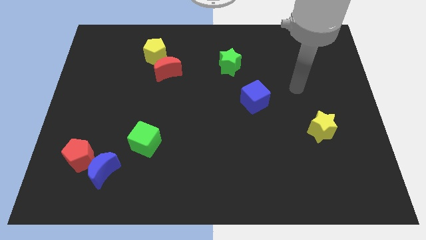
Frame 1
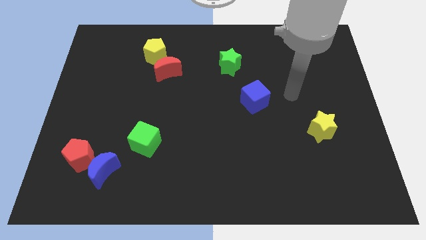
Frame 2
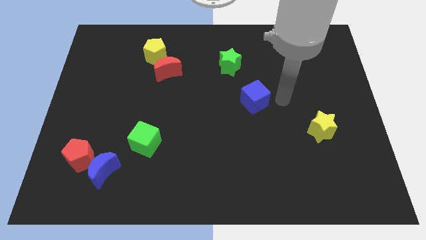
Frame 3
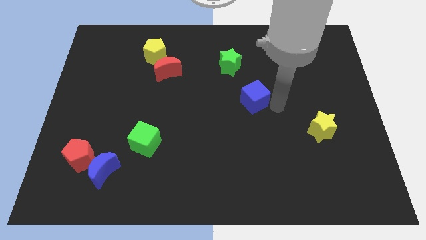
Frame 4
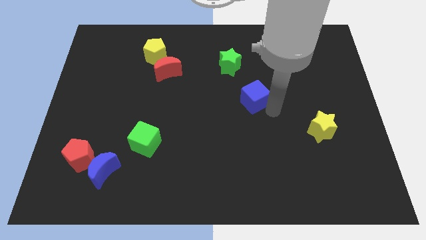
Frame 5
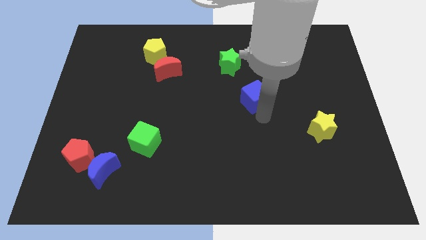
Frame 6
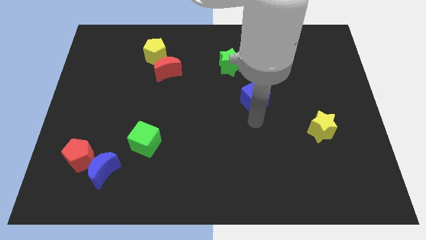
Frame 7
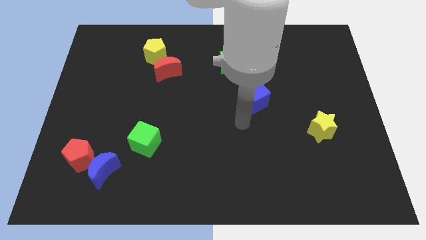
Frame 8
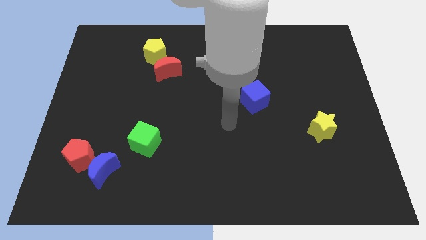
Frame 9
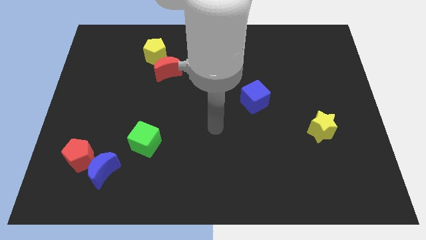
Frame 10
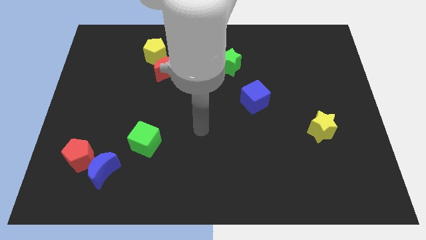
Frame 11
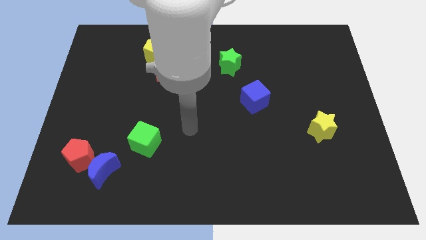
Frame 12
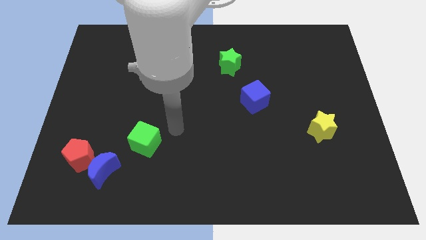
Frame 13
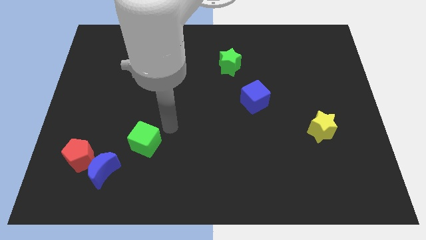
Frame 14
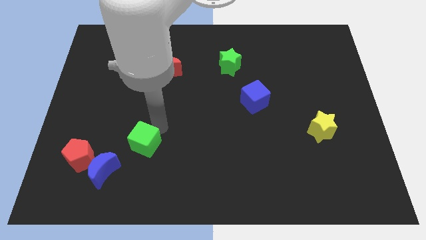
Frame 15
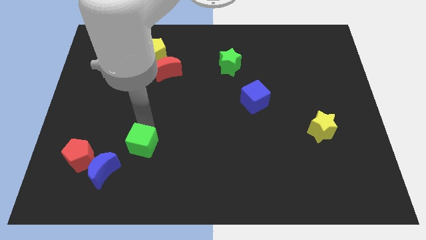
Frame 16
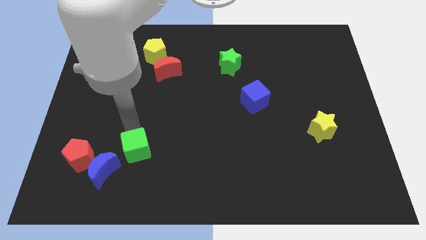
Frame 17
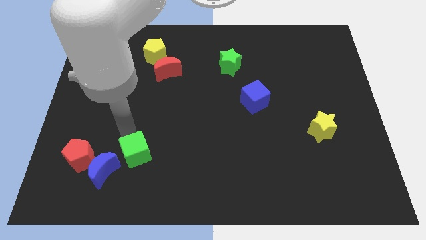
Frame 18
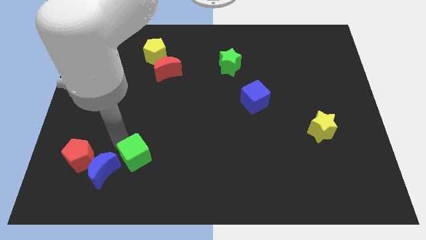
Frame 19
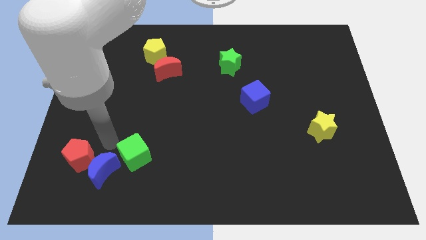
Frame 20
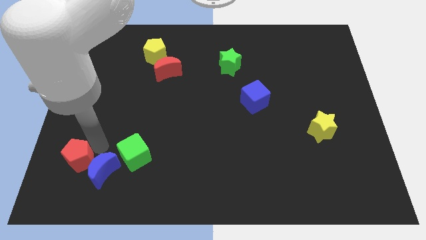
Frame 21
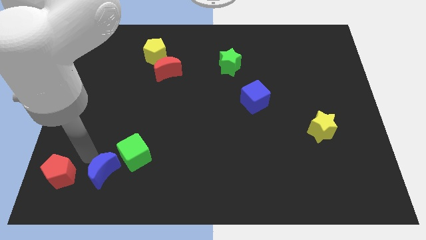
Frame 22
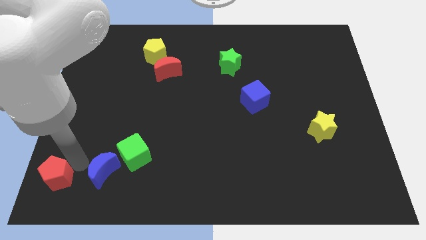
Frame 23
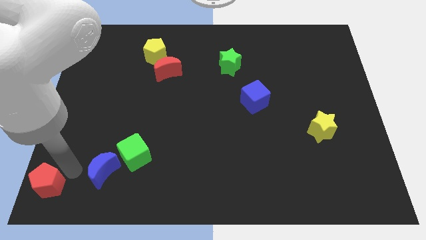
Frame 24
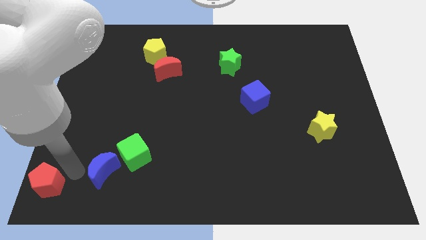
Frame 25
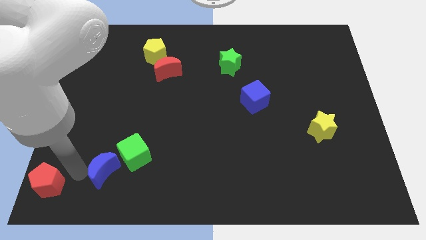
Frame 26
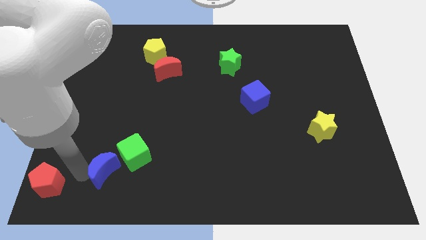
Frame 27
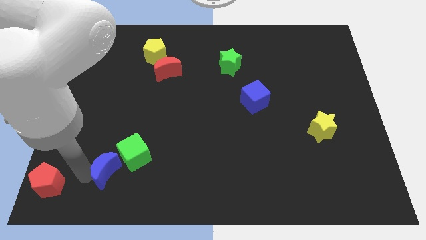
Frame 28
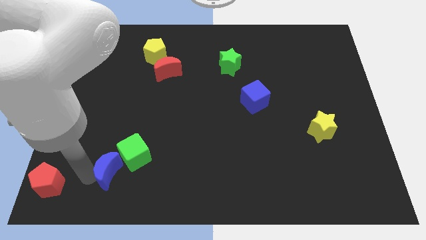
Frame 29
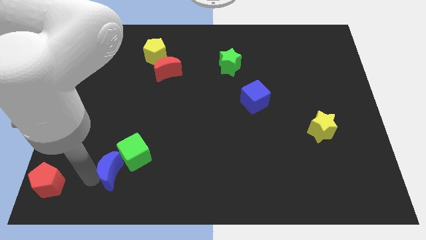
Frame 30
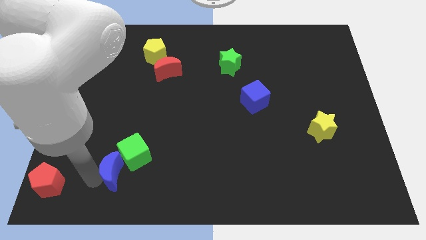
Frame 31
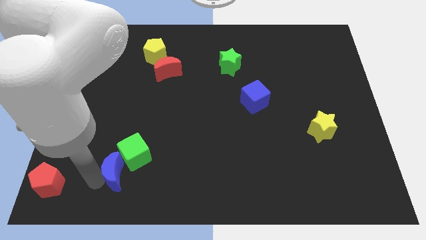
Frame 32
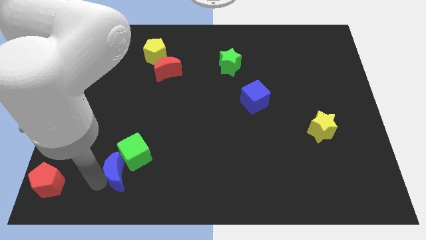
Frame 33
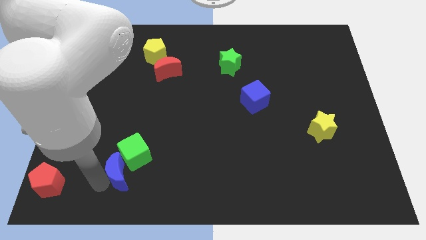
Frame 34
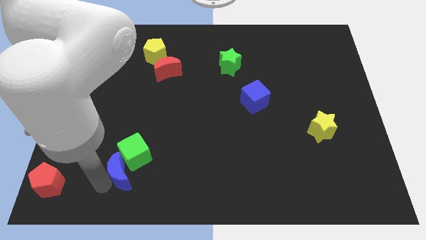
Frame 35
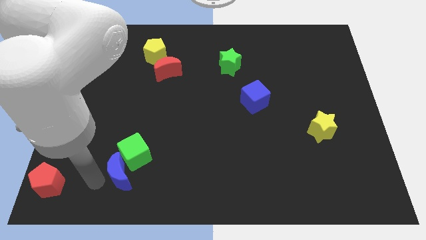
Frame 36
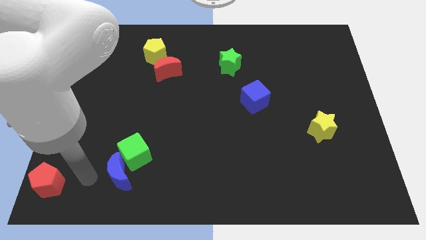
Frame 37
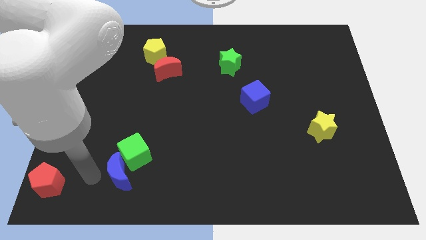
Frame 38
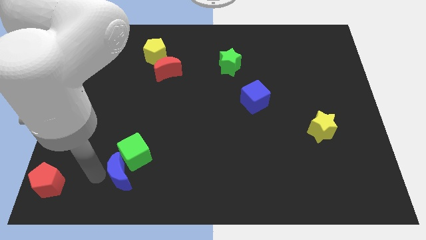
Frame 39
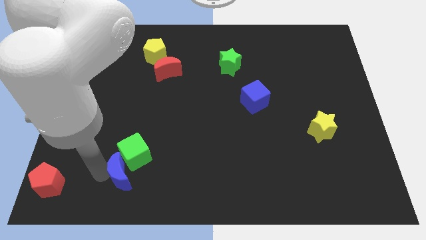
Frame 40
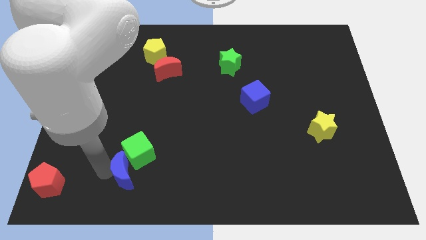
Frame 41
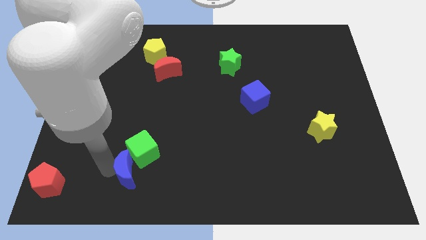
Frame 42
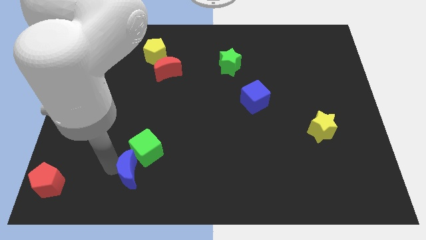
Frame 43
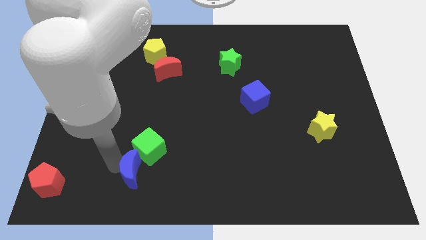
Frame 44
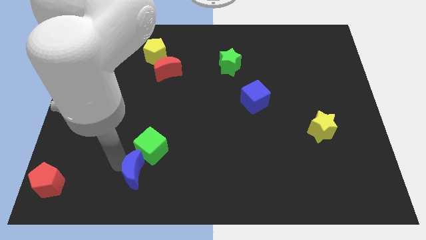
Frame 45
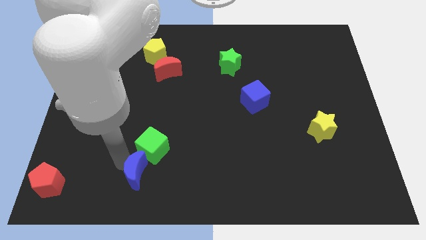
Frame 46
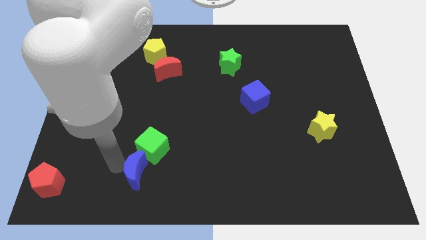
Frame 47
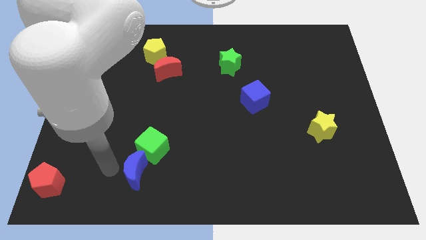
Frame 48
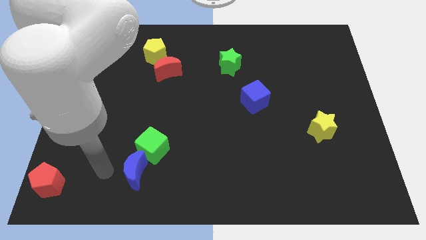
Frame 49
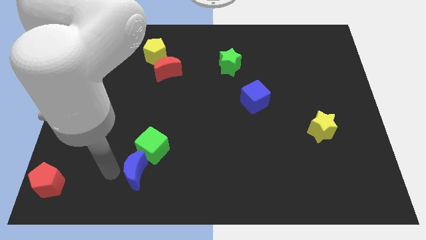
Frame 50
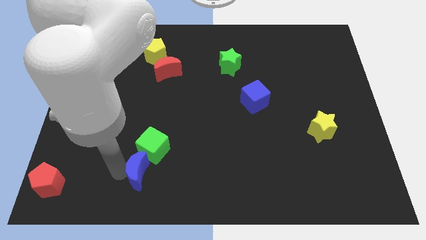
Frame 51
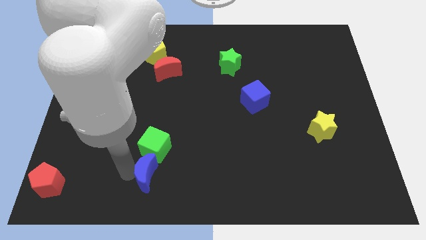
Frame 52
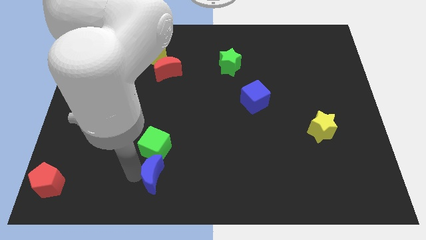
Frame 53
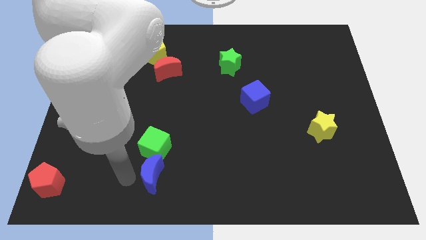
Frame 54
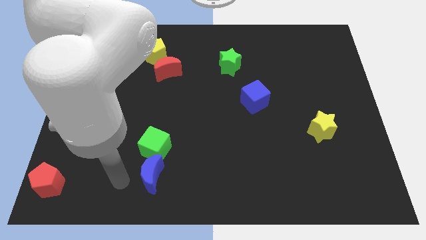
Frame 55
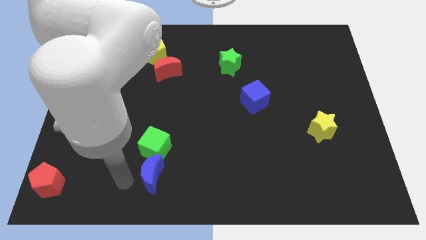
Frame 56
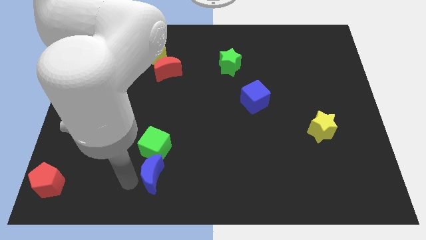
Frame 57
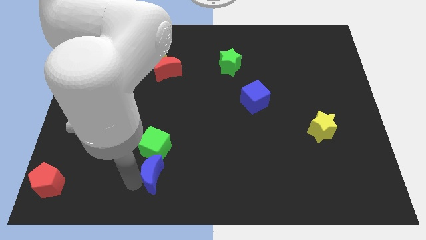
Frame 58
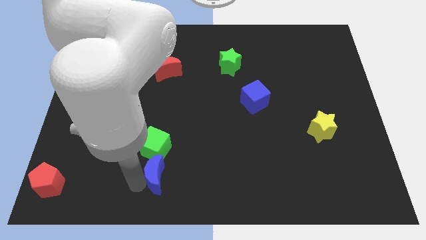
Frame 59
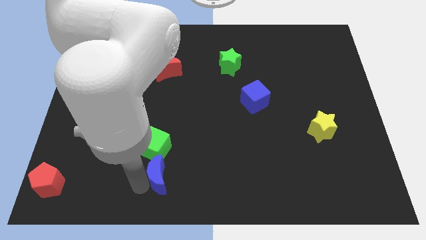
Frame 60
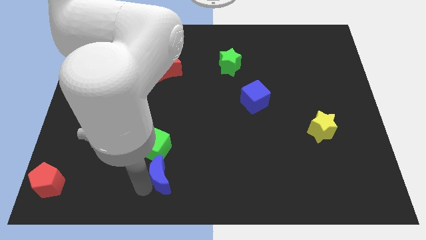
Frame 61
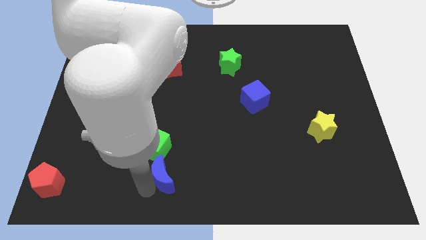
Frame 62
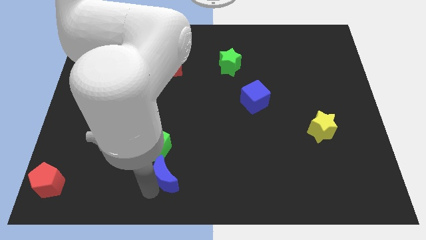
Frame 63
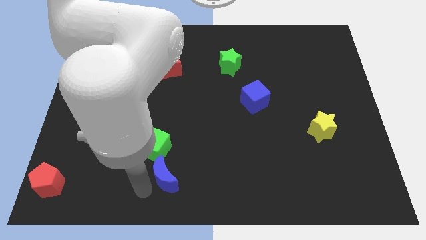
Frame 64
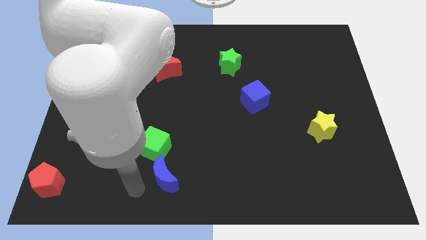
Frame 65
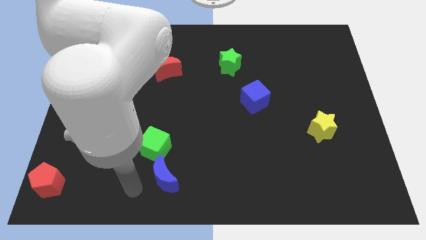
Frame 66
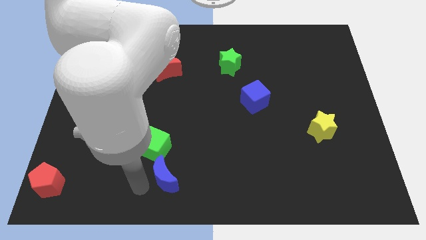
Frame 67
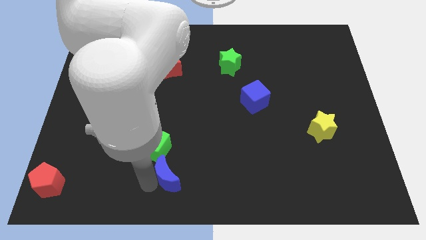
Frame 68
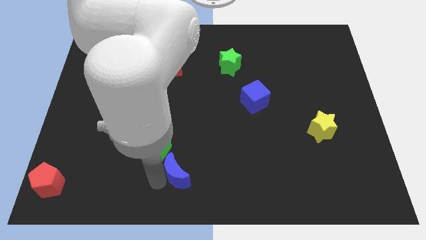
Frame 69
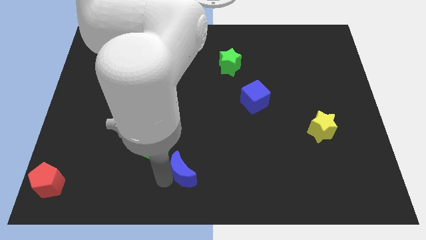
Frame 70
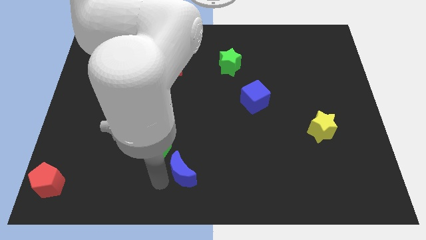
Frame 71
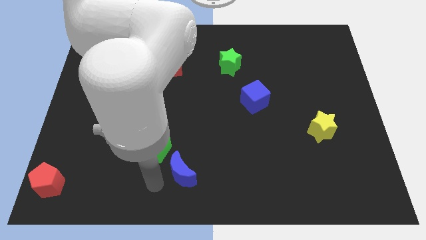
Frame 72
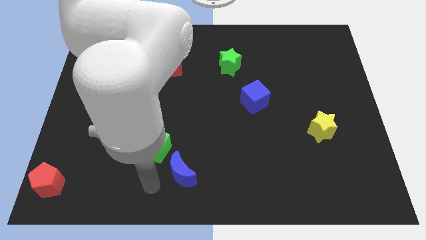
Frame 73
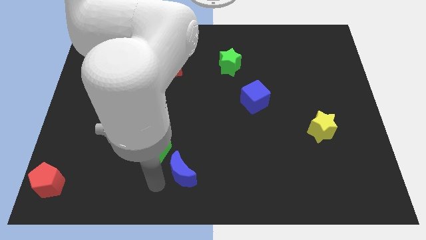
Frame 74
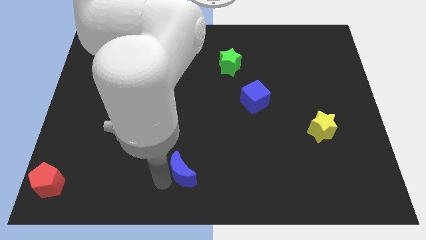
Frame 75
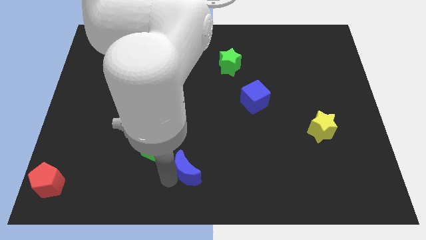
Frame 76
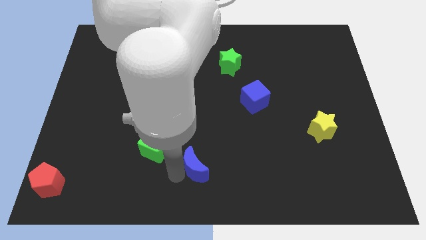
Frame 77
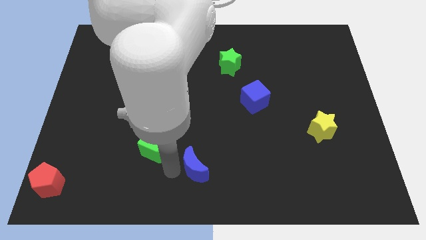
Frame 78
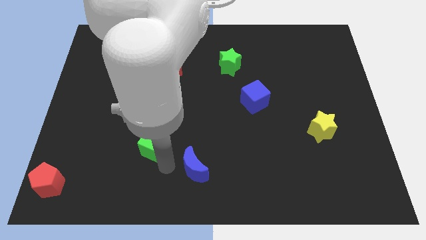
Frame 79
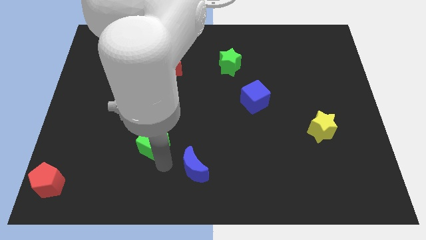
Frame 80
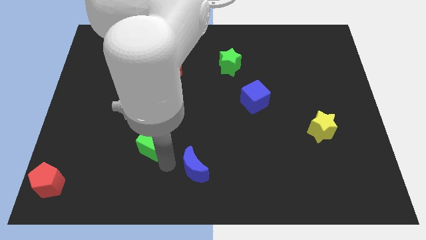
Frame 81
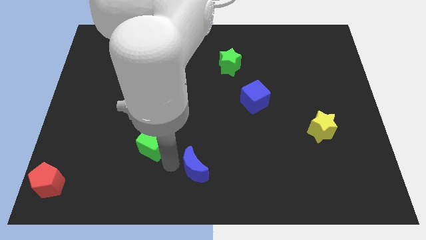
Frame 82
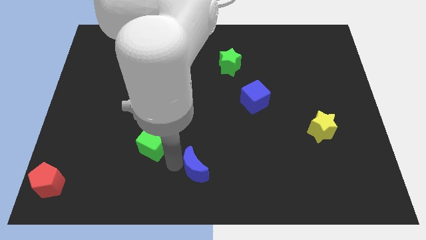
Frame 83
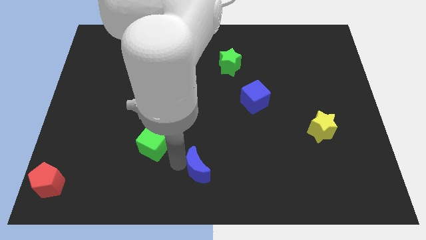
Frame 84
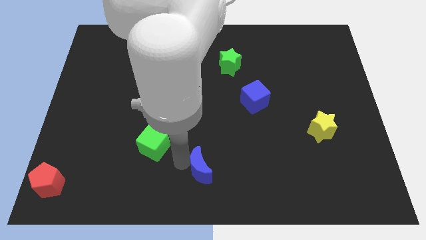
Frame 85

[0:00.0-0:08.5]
push the blue moon to the right
